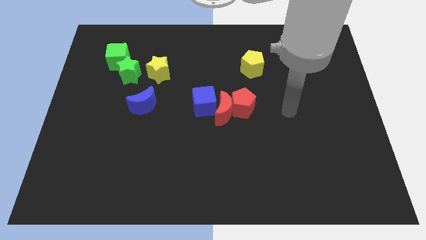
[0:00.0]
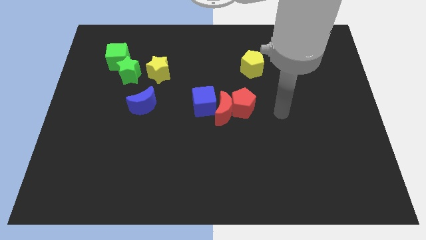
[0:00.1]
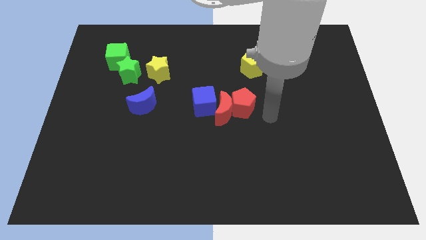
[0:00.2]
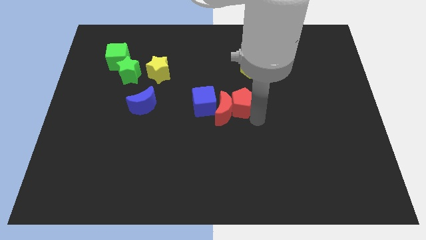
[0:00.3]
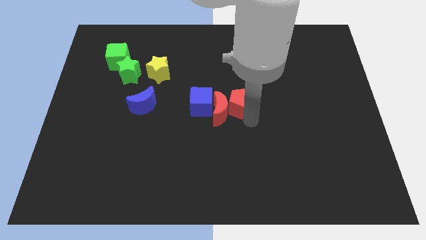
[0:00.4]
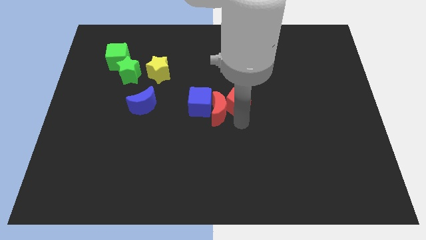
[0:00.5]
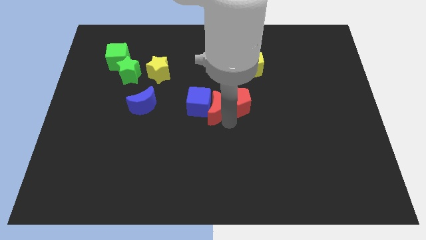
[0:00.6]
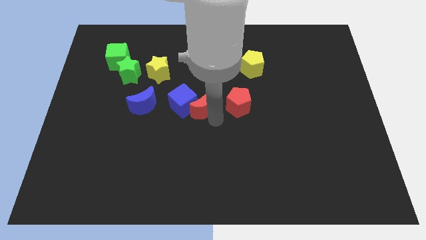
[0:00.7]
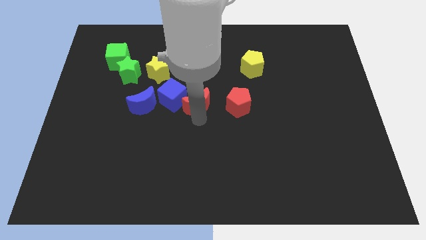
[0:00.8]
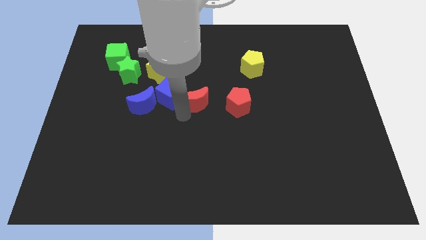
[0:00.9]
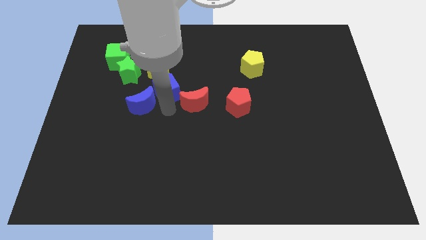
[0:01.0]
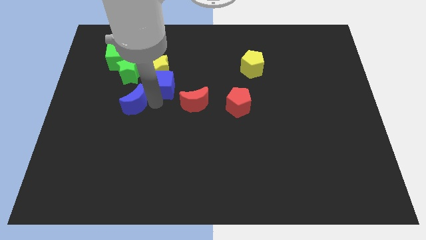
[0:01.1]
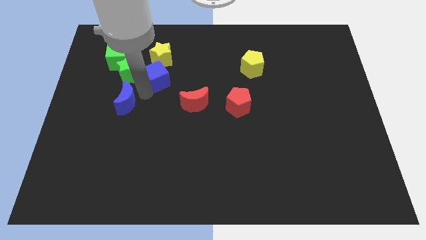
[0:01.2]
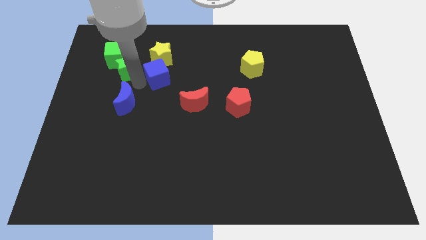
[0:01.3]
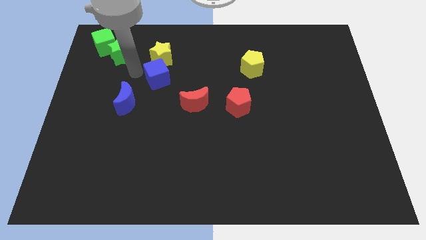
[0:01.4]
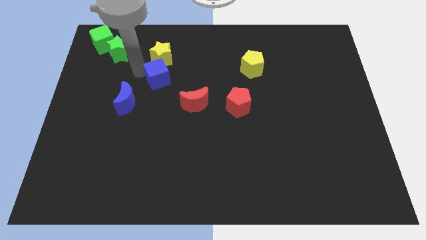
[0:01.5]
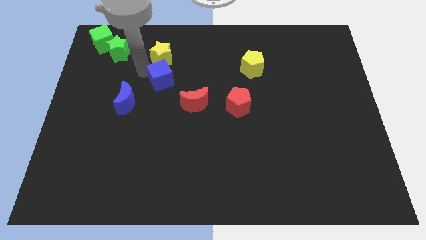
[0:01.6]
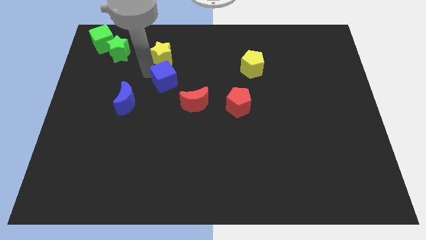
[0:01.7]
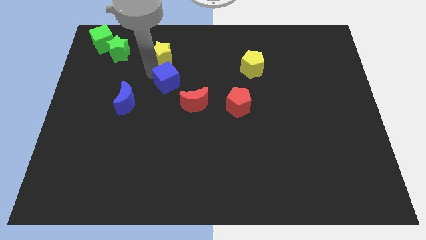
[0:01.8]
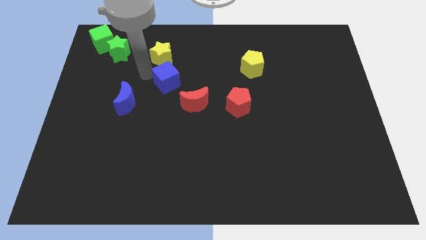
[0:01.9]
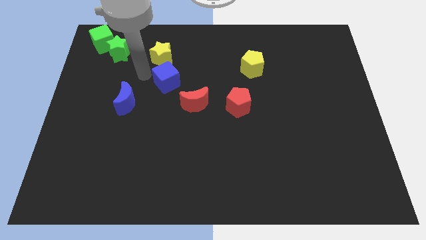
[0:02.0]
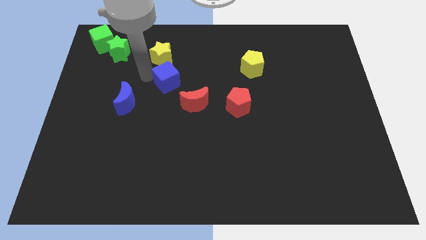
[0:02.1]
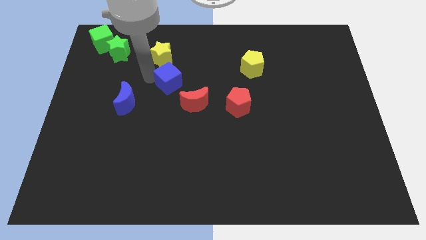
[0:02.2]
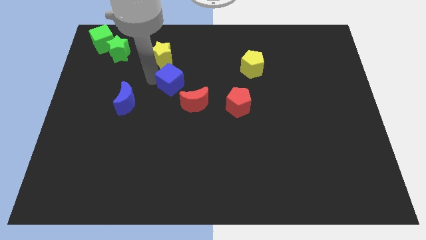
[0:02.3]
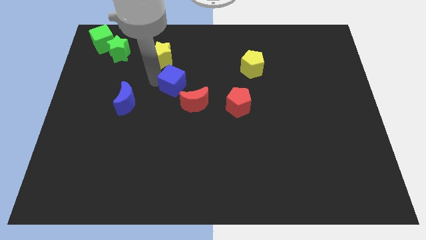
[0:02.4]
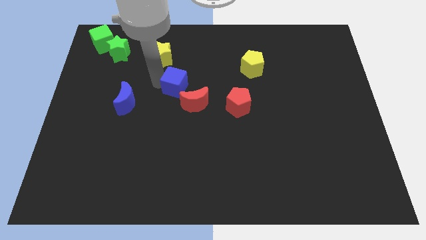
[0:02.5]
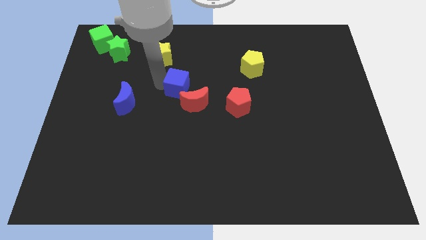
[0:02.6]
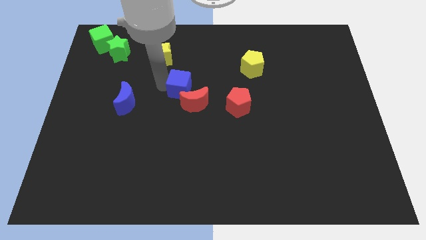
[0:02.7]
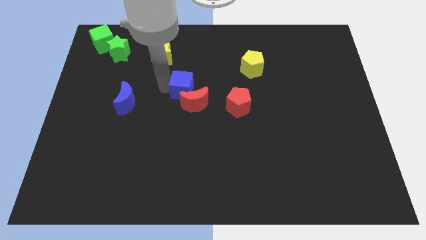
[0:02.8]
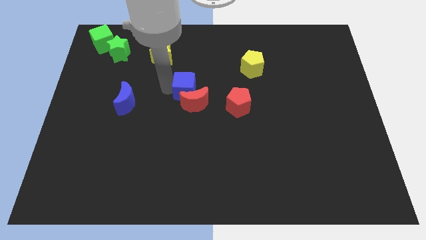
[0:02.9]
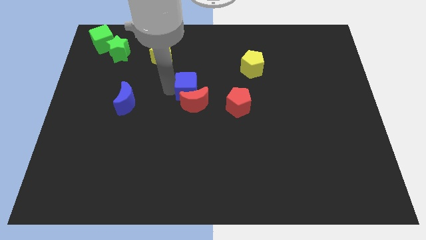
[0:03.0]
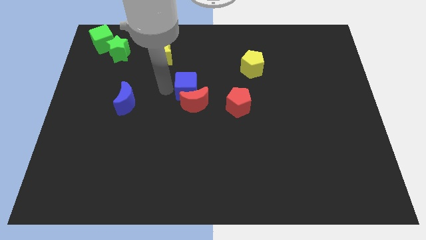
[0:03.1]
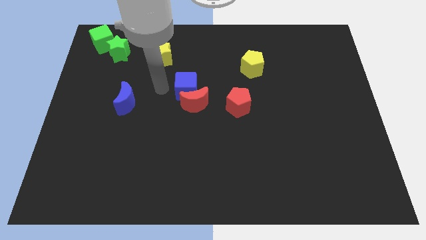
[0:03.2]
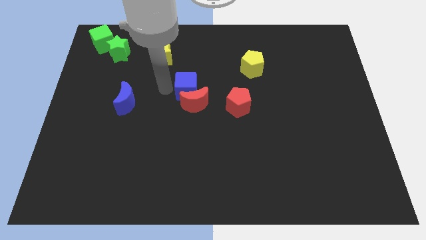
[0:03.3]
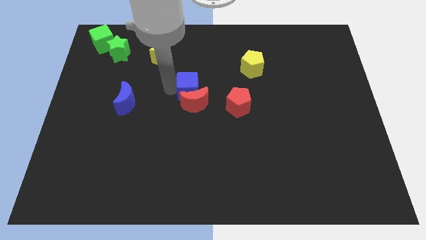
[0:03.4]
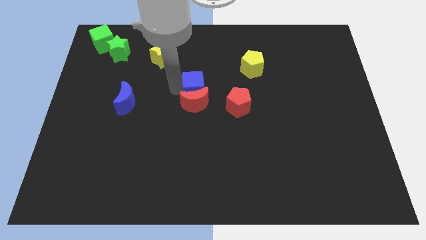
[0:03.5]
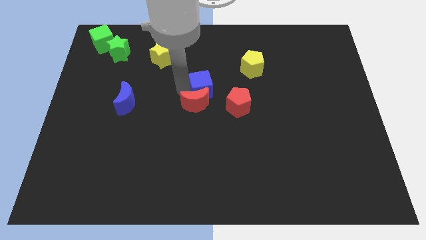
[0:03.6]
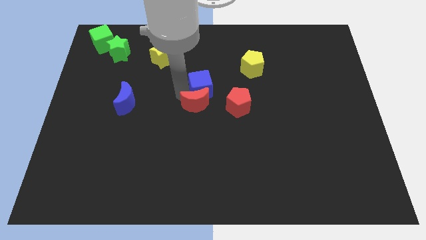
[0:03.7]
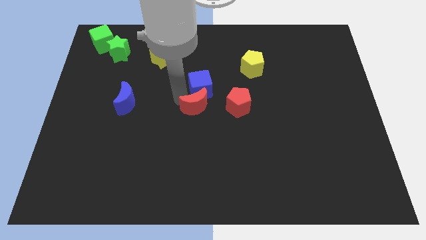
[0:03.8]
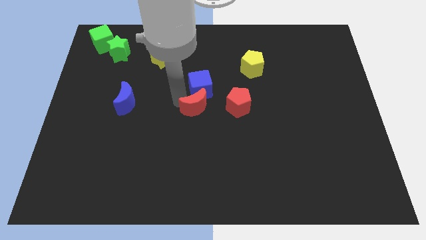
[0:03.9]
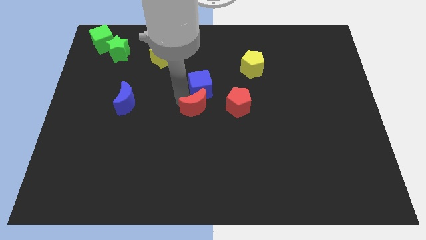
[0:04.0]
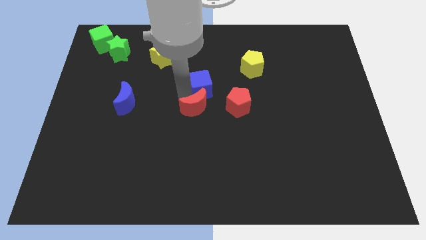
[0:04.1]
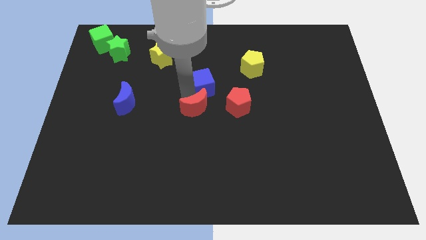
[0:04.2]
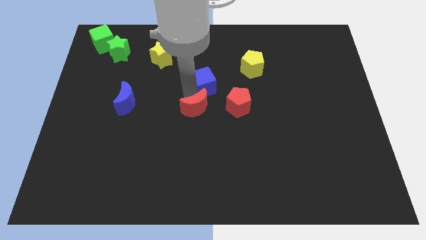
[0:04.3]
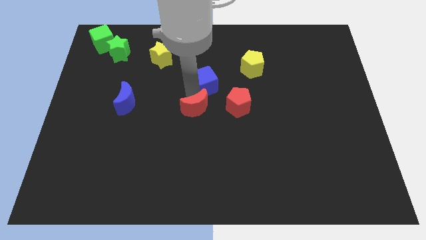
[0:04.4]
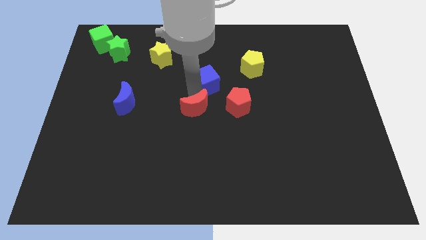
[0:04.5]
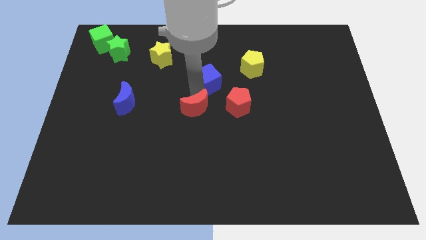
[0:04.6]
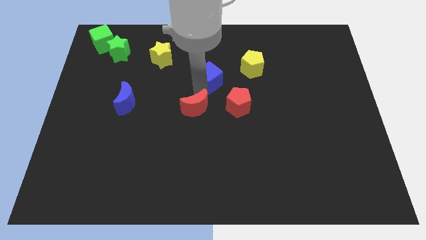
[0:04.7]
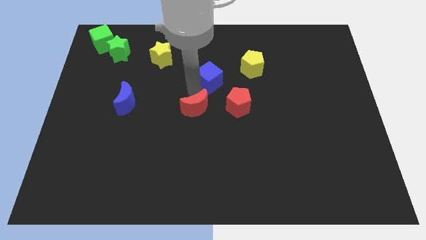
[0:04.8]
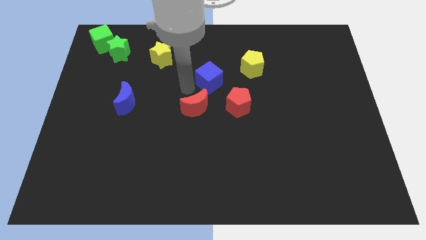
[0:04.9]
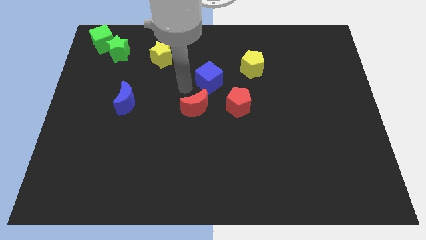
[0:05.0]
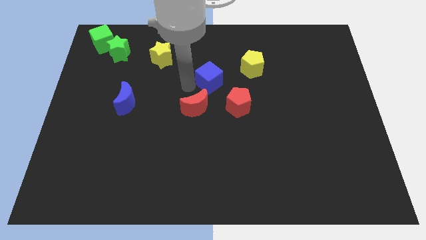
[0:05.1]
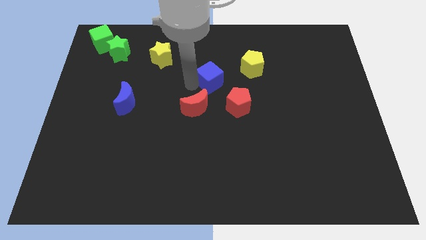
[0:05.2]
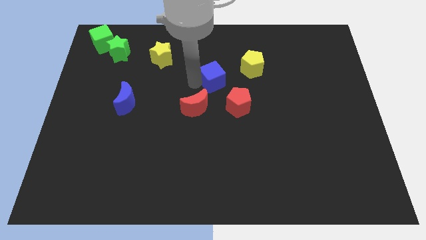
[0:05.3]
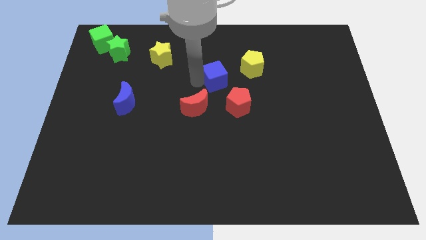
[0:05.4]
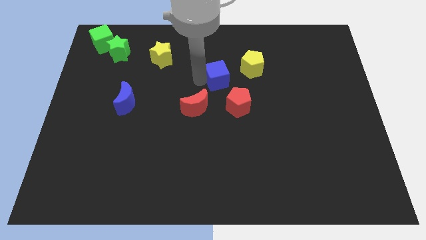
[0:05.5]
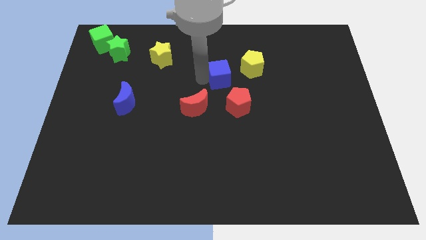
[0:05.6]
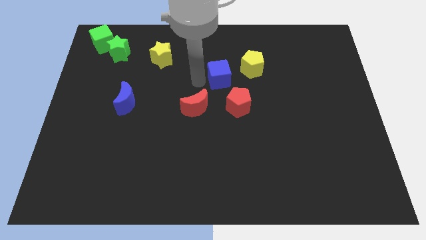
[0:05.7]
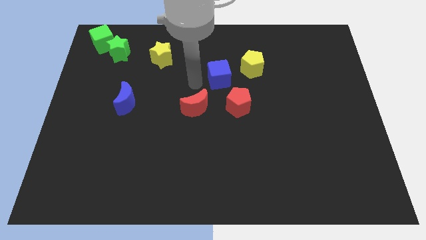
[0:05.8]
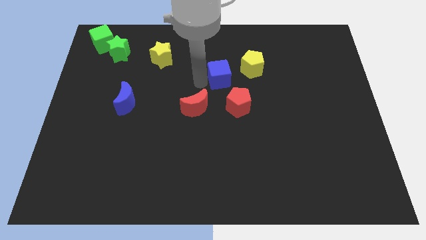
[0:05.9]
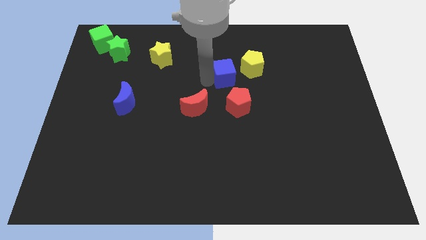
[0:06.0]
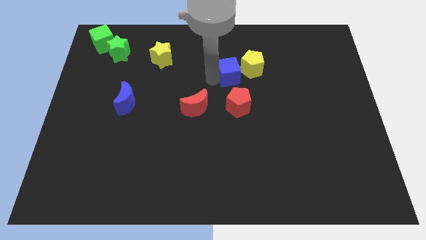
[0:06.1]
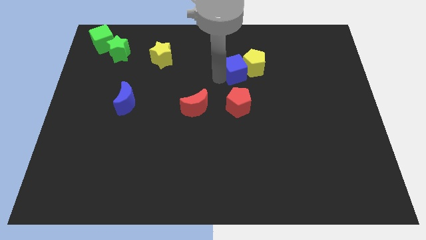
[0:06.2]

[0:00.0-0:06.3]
push the blue cube close to the yellow pentagon

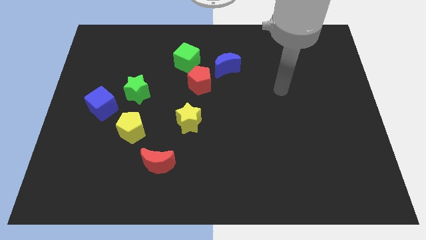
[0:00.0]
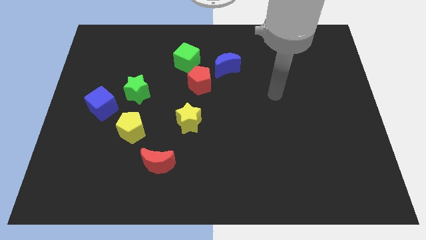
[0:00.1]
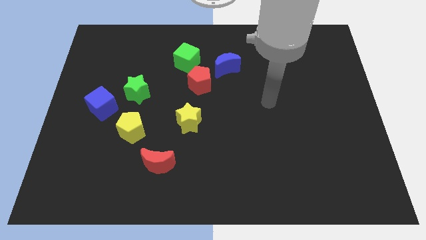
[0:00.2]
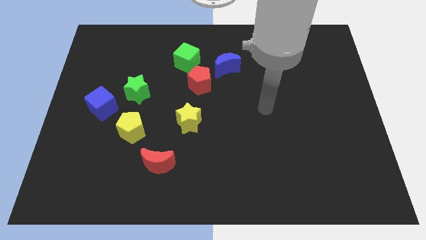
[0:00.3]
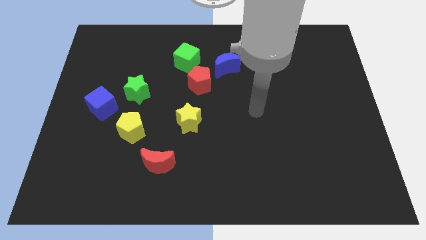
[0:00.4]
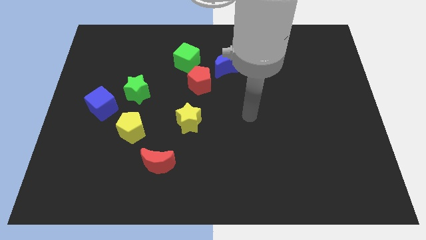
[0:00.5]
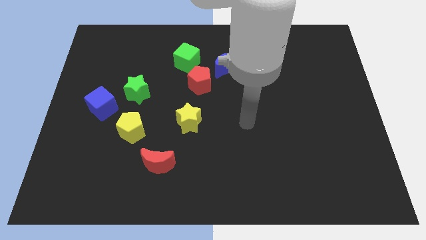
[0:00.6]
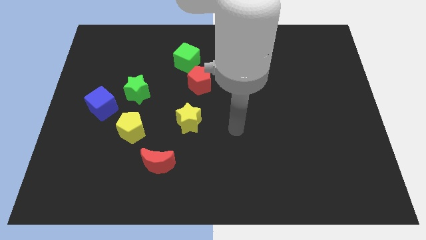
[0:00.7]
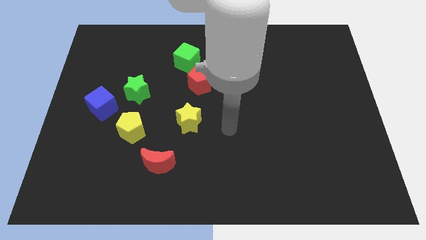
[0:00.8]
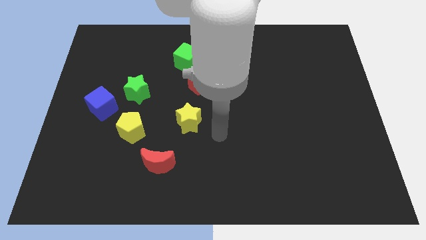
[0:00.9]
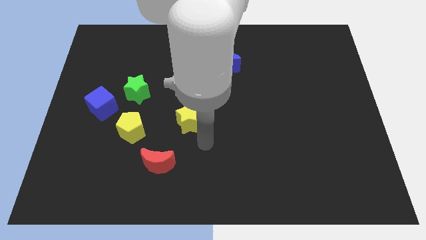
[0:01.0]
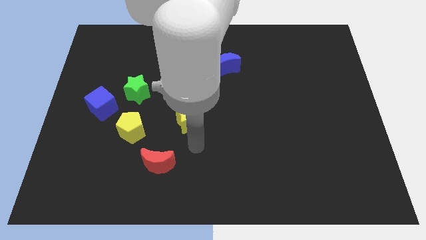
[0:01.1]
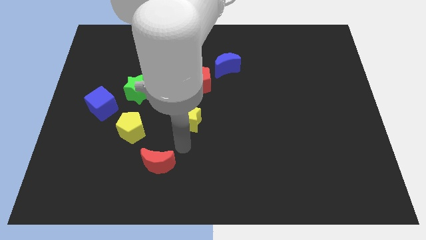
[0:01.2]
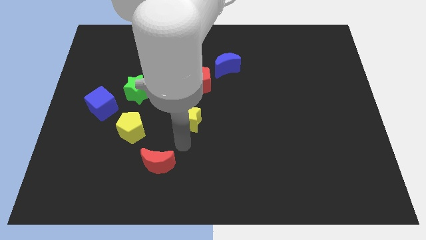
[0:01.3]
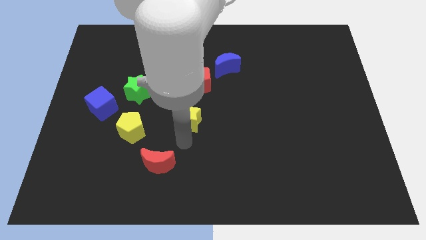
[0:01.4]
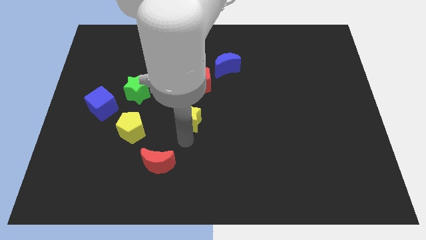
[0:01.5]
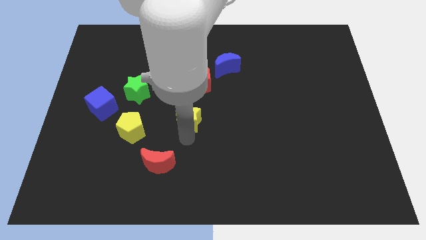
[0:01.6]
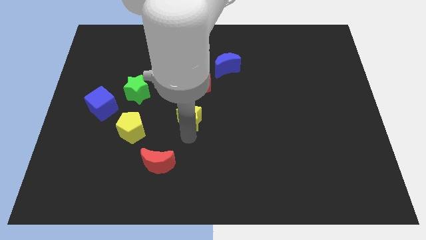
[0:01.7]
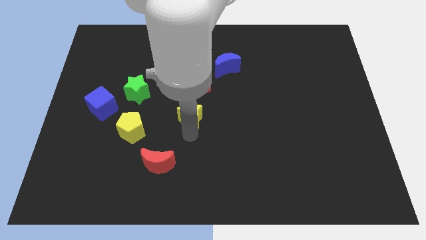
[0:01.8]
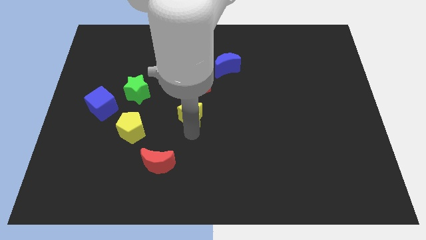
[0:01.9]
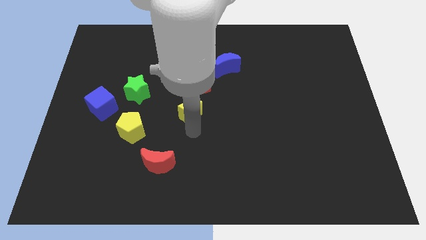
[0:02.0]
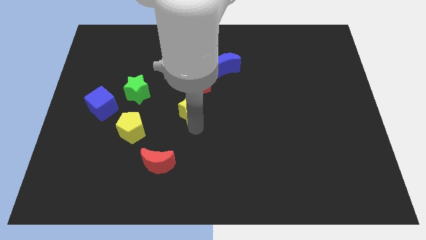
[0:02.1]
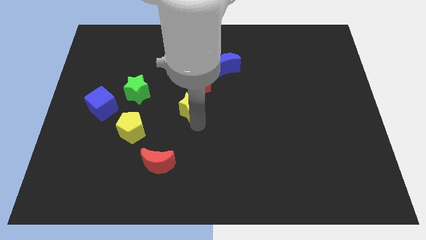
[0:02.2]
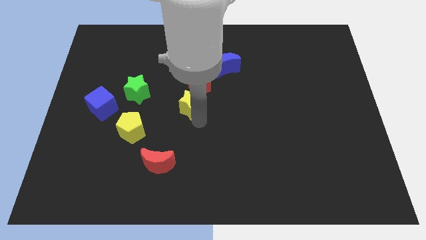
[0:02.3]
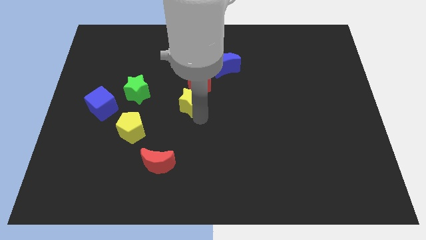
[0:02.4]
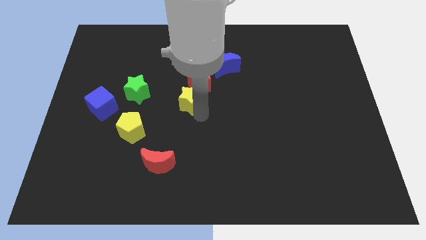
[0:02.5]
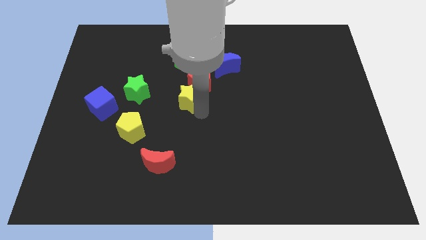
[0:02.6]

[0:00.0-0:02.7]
push the yellow star towards the red pentagon
